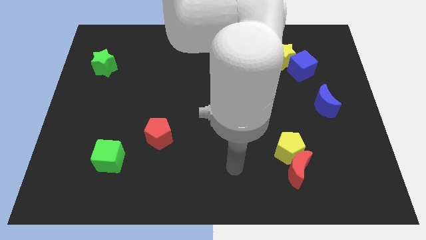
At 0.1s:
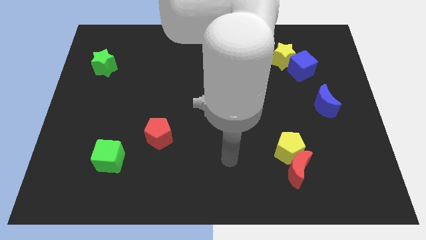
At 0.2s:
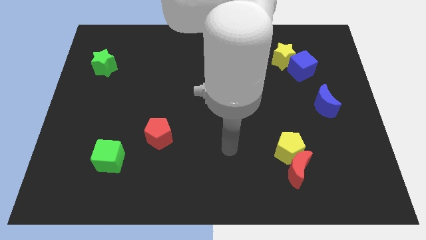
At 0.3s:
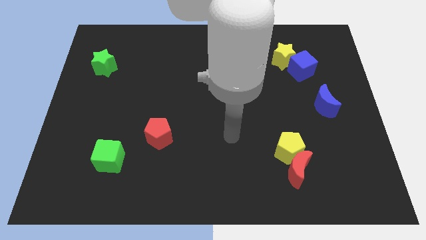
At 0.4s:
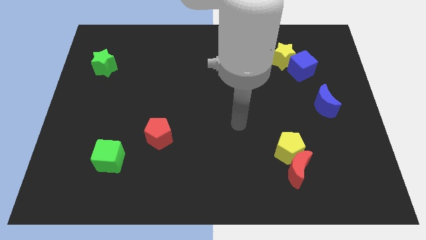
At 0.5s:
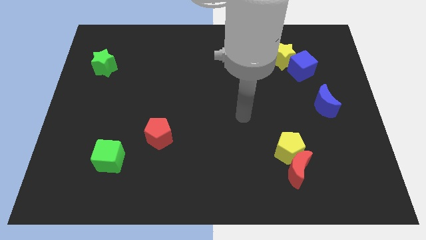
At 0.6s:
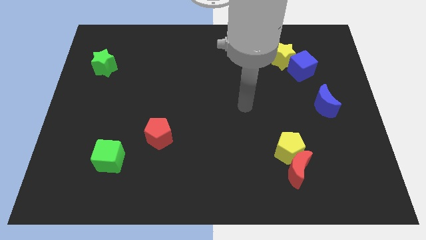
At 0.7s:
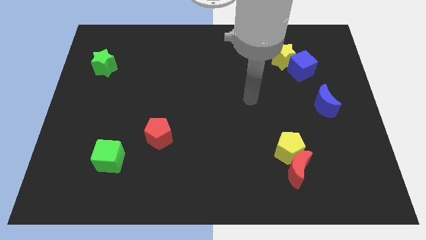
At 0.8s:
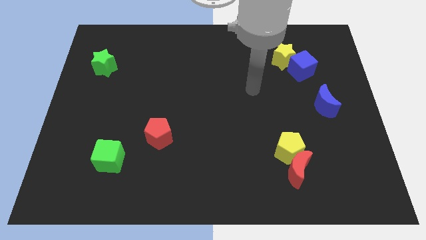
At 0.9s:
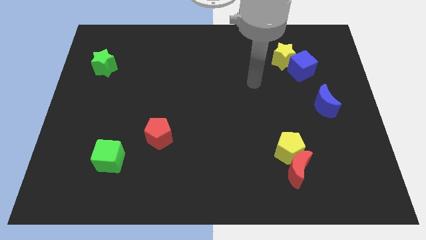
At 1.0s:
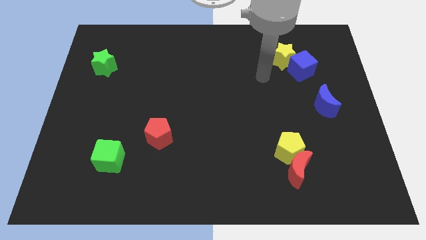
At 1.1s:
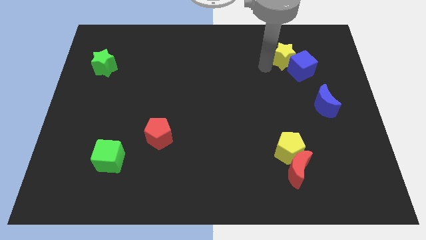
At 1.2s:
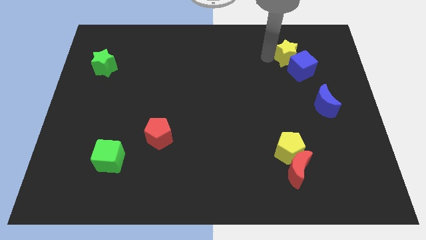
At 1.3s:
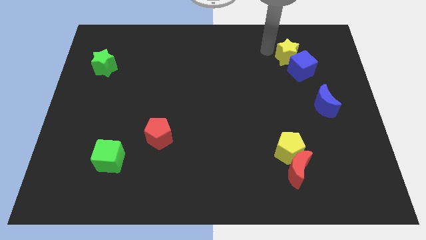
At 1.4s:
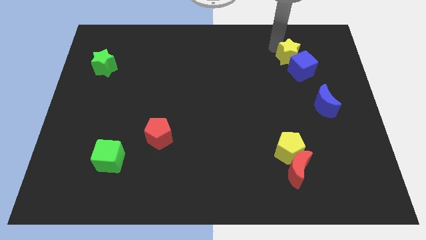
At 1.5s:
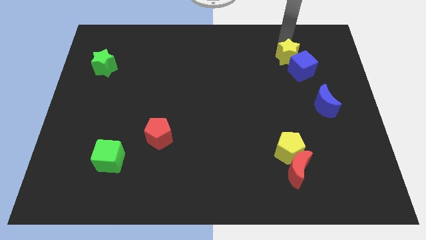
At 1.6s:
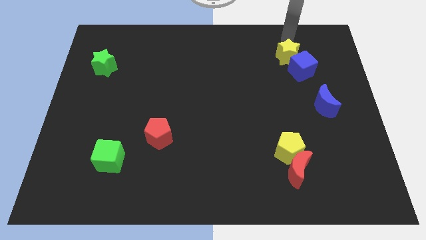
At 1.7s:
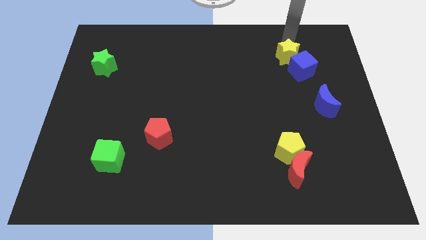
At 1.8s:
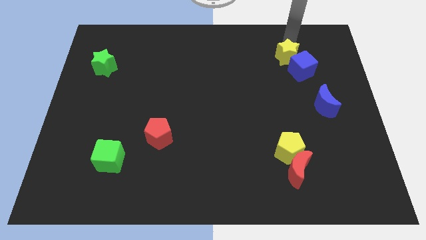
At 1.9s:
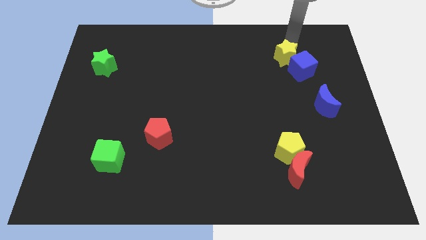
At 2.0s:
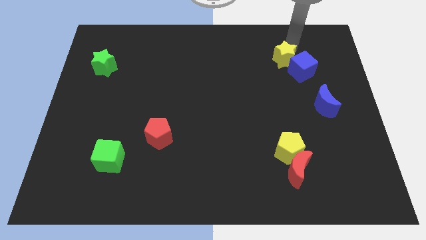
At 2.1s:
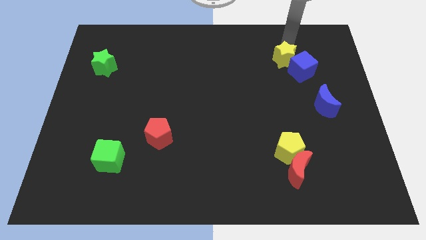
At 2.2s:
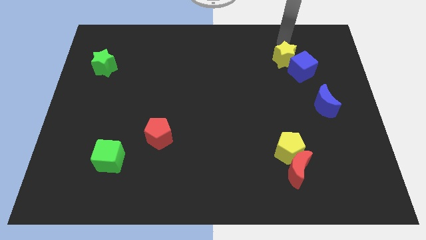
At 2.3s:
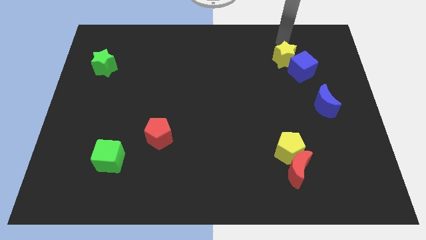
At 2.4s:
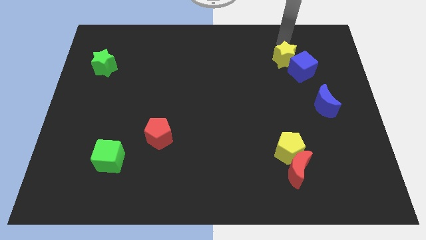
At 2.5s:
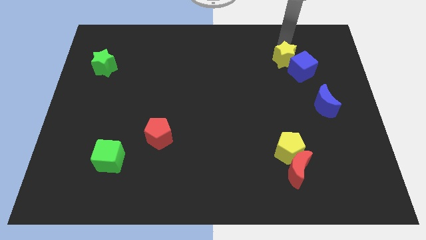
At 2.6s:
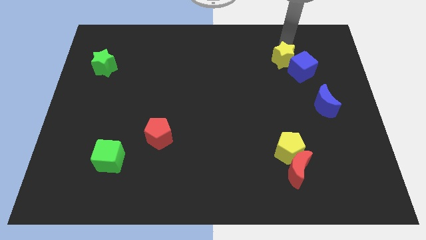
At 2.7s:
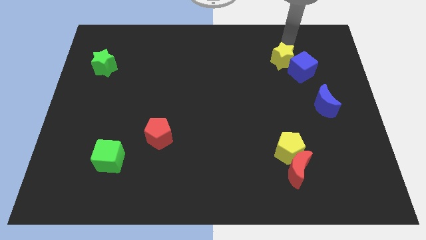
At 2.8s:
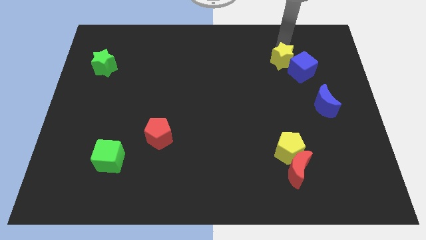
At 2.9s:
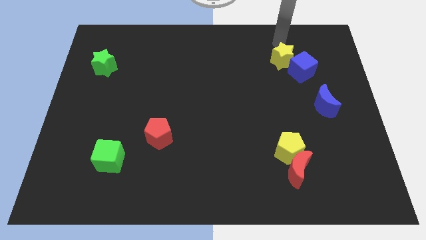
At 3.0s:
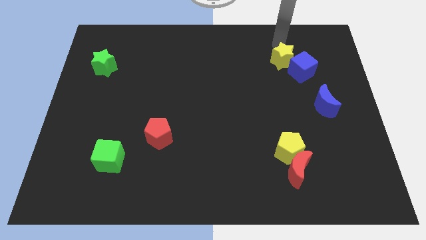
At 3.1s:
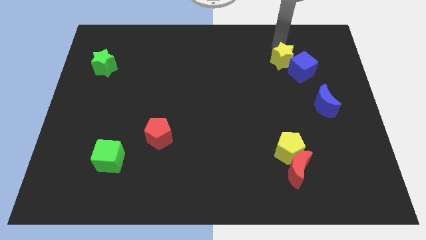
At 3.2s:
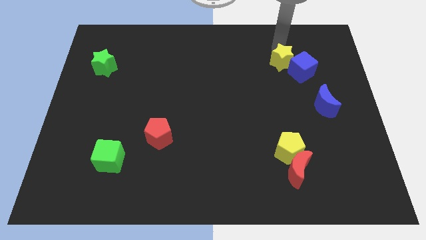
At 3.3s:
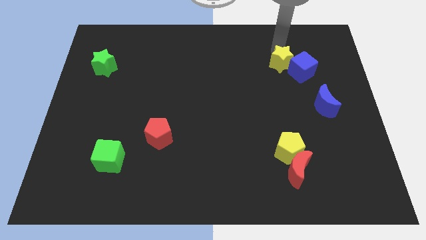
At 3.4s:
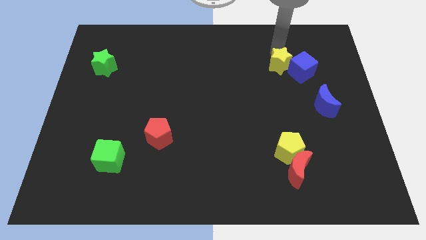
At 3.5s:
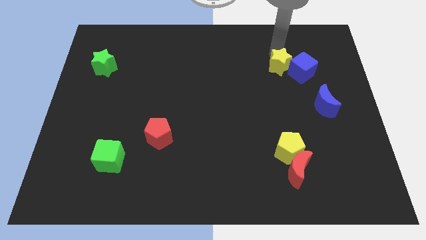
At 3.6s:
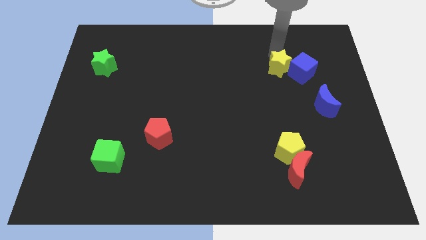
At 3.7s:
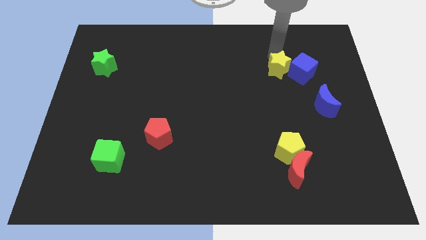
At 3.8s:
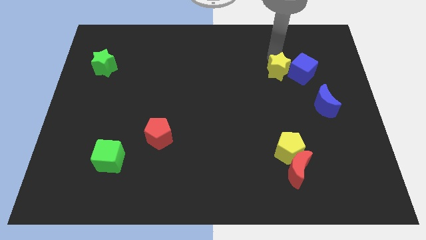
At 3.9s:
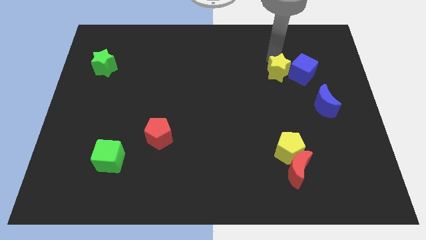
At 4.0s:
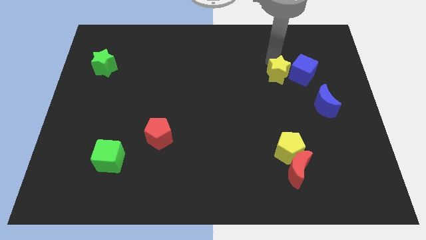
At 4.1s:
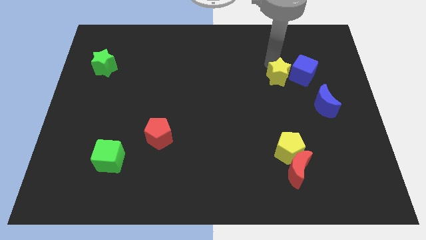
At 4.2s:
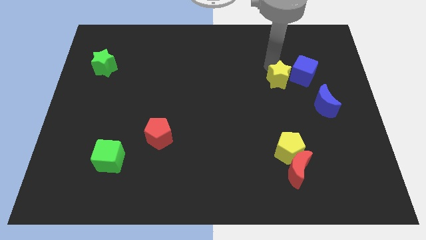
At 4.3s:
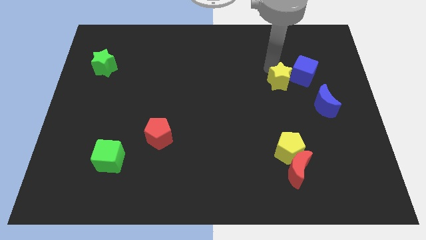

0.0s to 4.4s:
slide the yellow star somewhat down

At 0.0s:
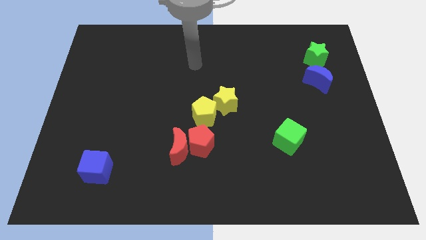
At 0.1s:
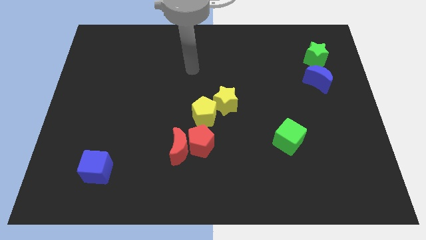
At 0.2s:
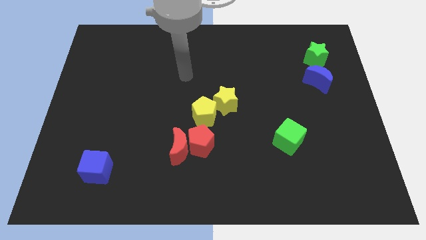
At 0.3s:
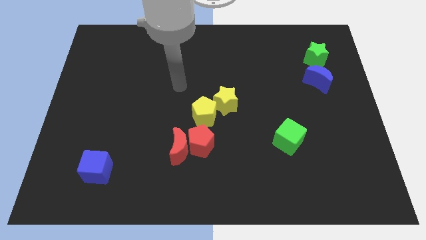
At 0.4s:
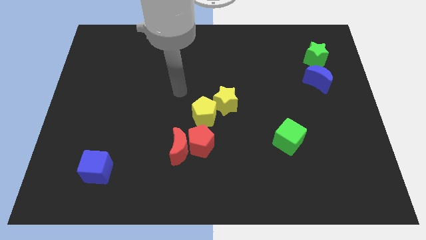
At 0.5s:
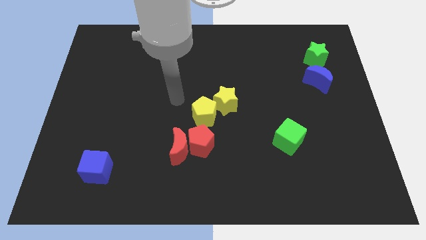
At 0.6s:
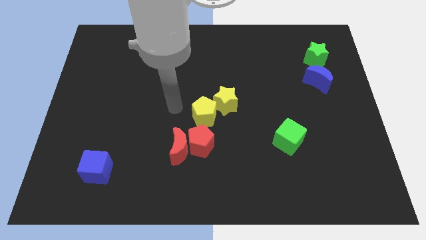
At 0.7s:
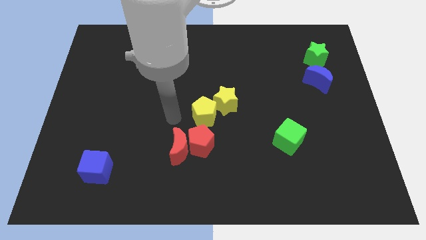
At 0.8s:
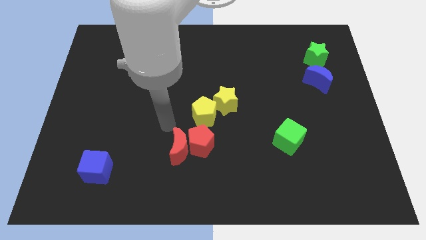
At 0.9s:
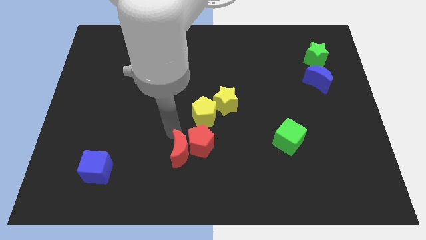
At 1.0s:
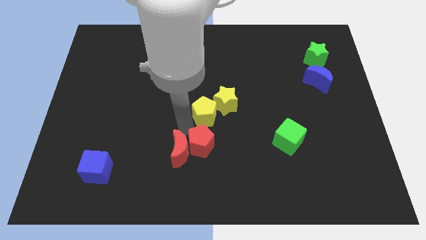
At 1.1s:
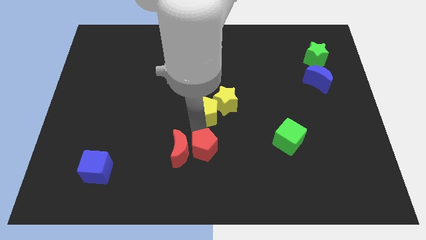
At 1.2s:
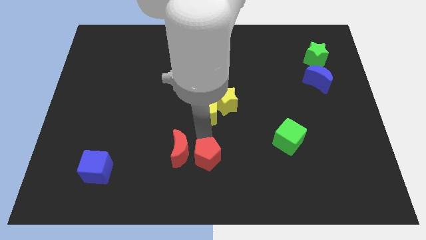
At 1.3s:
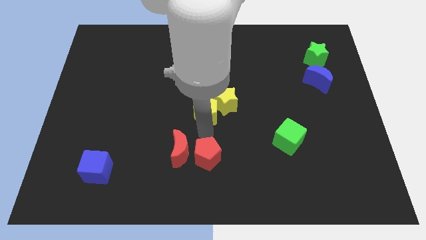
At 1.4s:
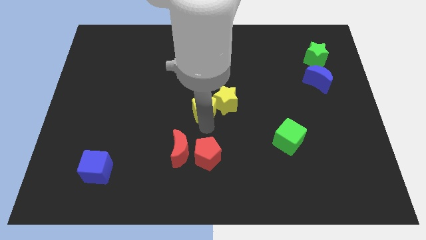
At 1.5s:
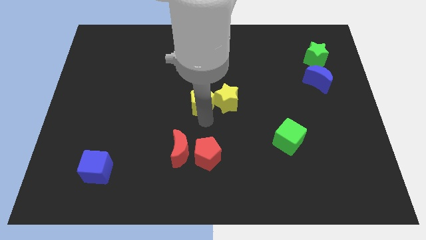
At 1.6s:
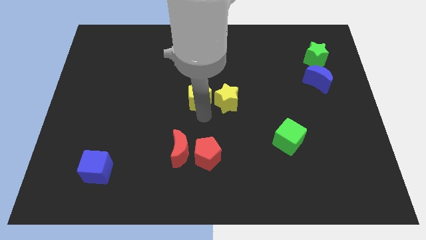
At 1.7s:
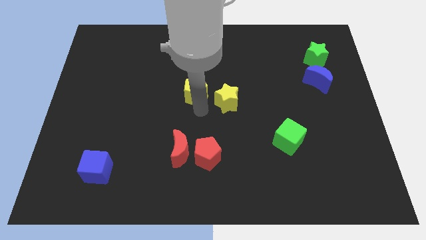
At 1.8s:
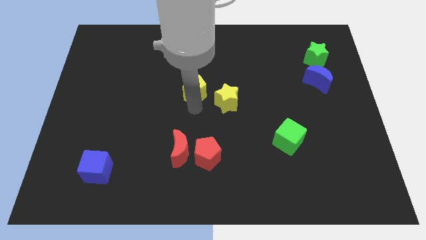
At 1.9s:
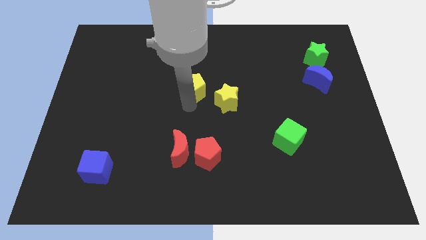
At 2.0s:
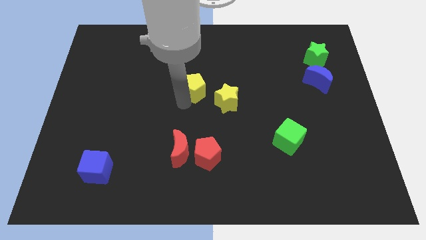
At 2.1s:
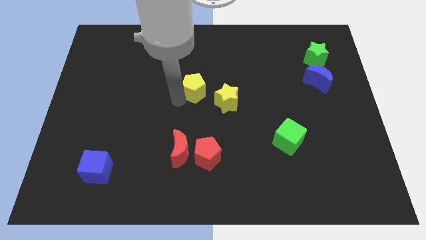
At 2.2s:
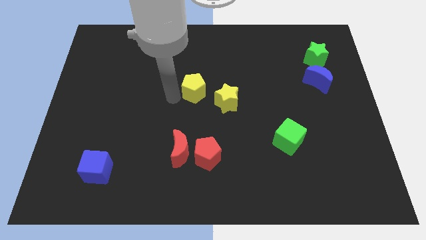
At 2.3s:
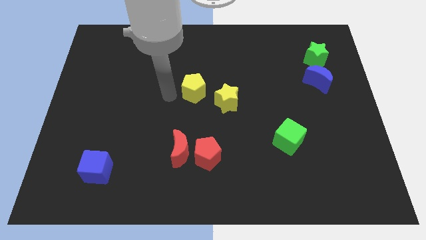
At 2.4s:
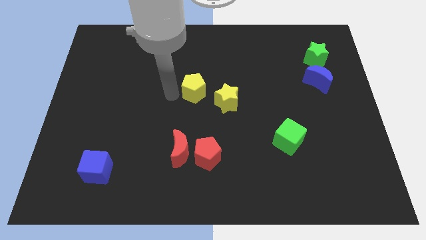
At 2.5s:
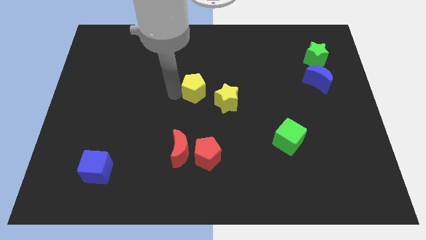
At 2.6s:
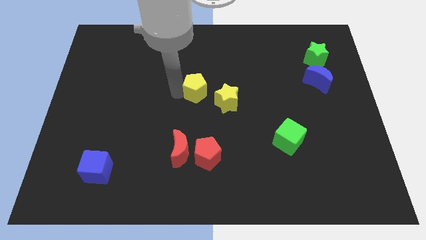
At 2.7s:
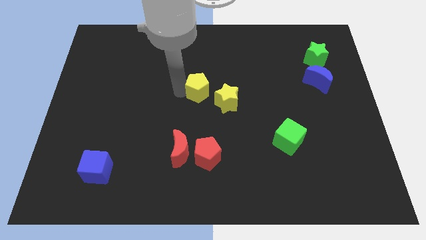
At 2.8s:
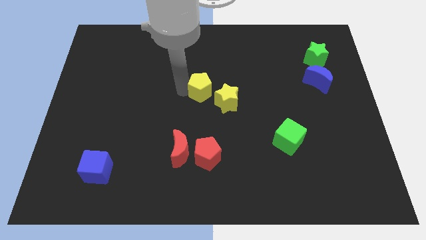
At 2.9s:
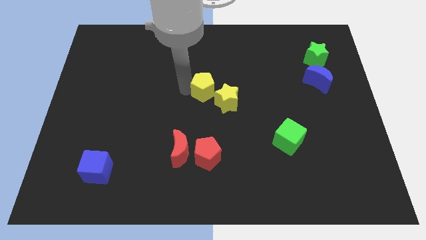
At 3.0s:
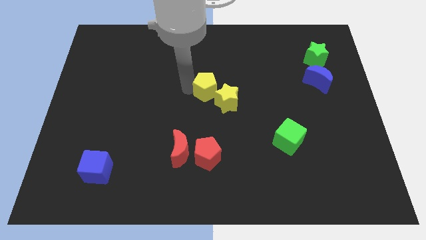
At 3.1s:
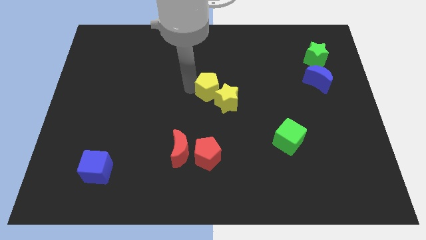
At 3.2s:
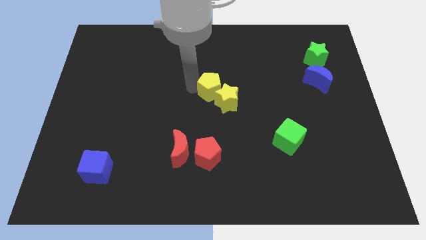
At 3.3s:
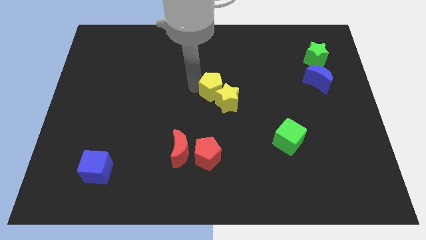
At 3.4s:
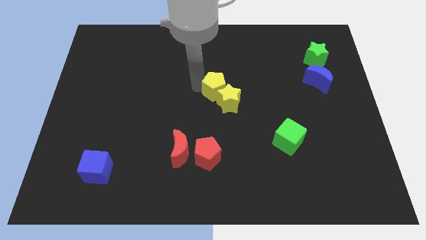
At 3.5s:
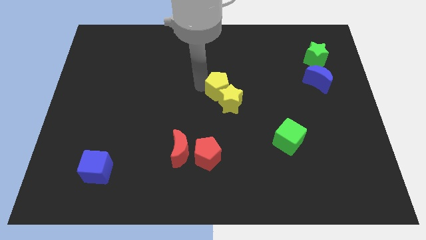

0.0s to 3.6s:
move the yellow pentagon a little bit up and right diagonally

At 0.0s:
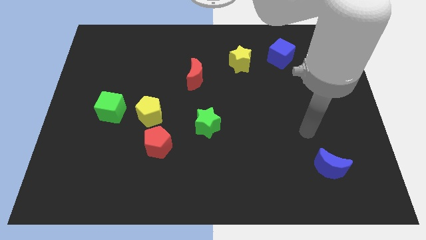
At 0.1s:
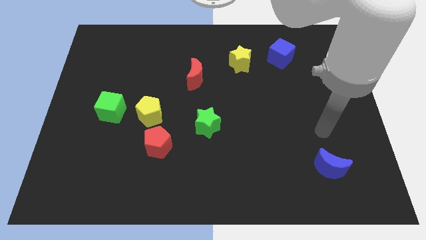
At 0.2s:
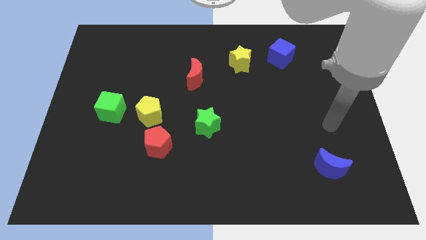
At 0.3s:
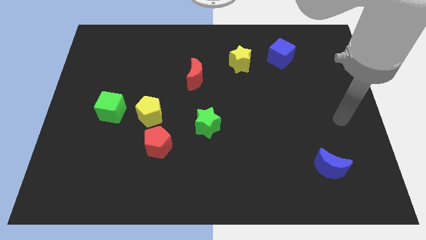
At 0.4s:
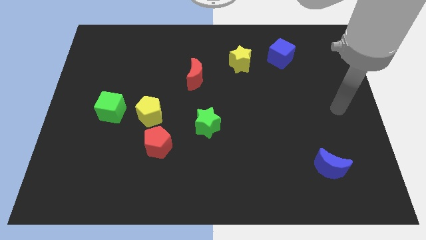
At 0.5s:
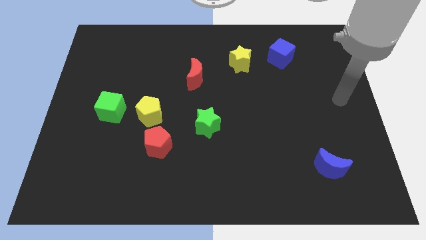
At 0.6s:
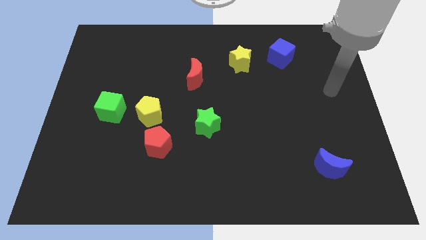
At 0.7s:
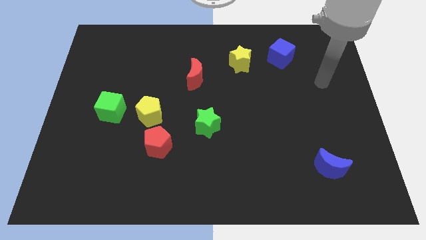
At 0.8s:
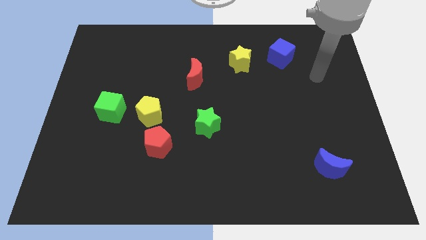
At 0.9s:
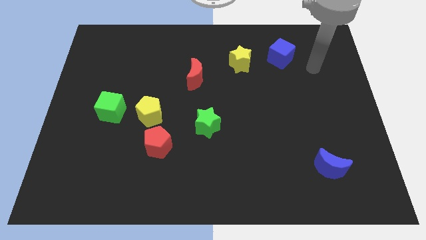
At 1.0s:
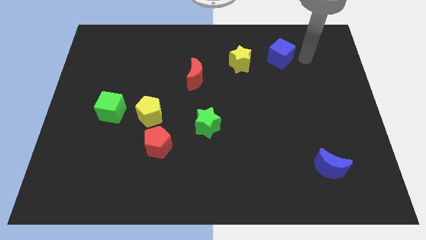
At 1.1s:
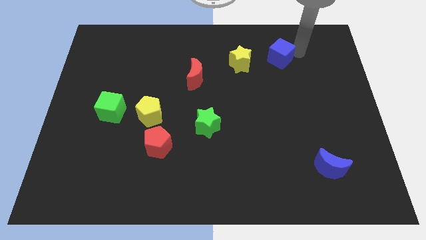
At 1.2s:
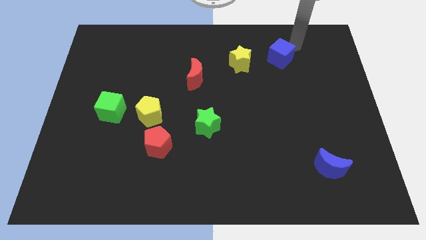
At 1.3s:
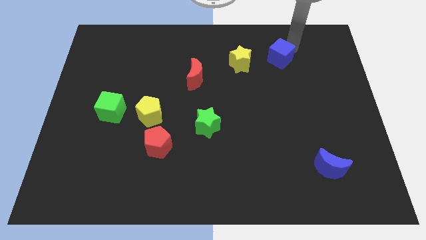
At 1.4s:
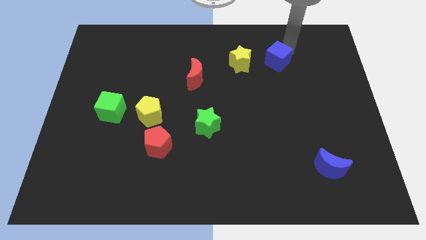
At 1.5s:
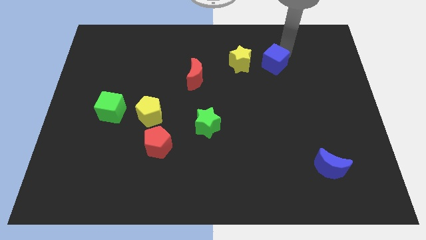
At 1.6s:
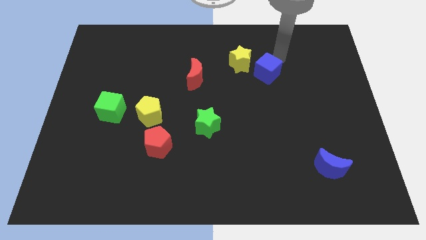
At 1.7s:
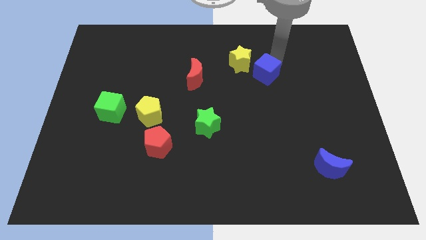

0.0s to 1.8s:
slightly push the blue cube down and to the left
